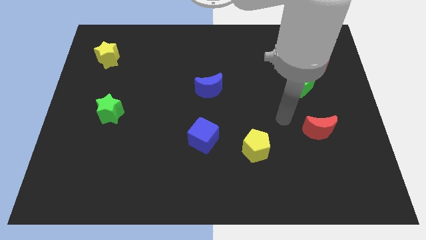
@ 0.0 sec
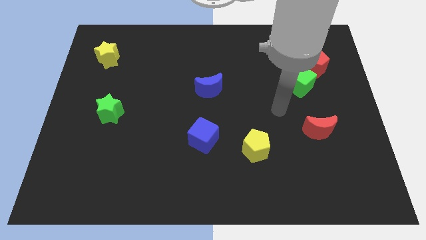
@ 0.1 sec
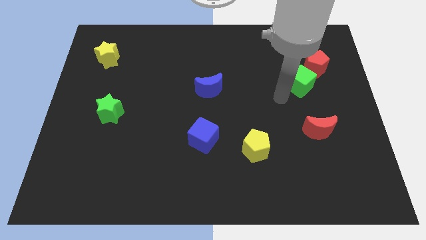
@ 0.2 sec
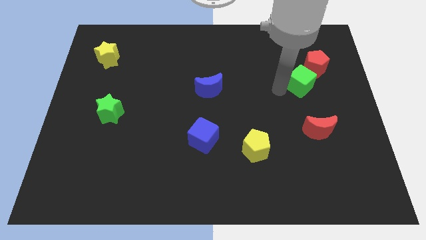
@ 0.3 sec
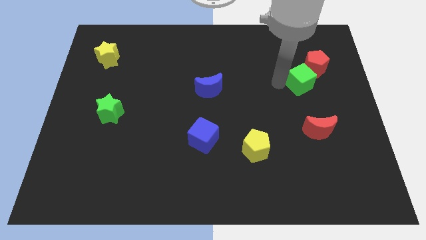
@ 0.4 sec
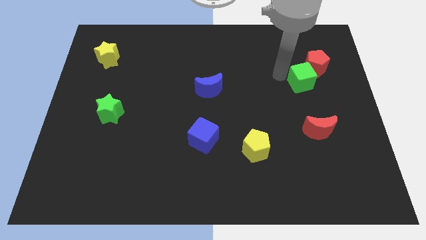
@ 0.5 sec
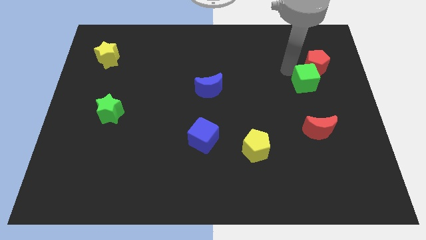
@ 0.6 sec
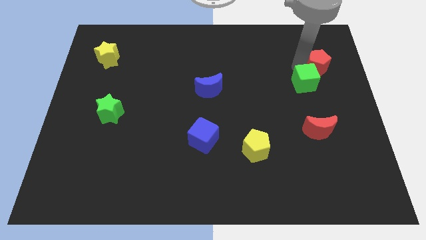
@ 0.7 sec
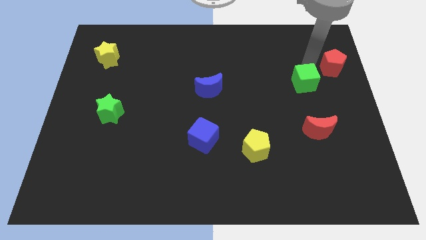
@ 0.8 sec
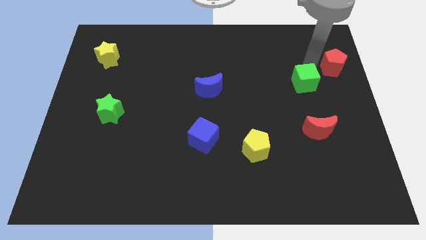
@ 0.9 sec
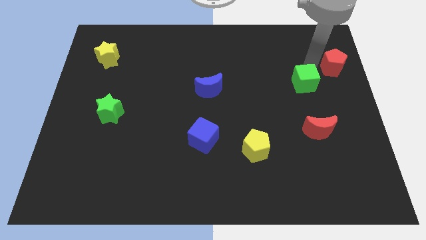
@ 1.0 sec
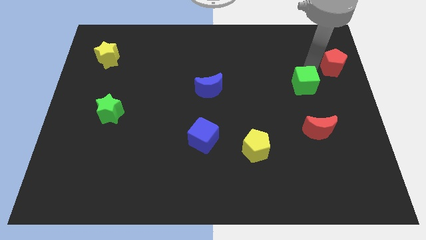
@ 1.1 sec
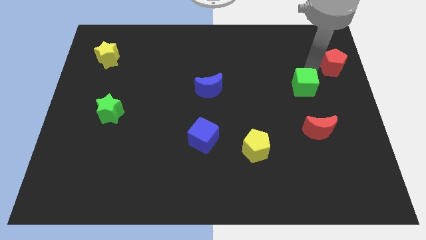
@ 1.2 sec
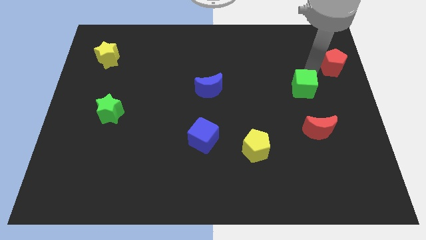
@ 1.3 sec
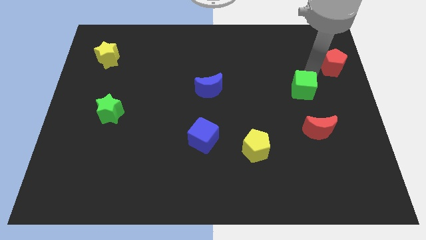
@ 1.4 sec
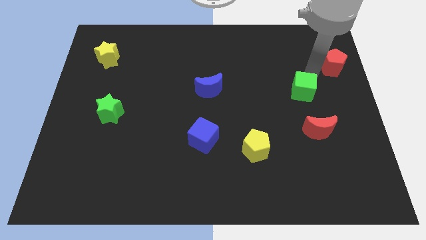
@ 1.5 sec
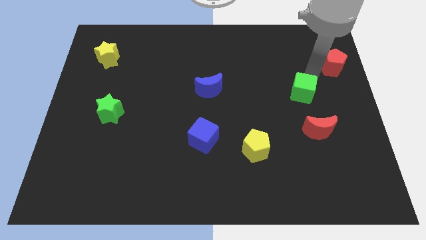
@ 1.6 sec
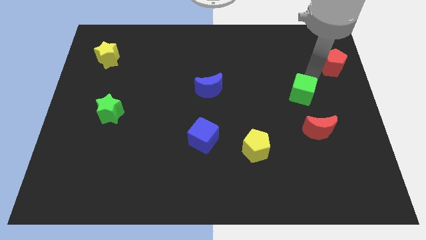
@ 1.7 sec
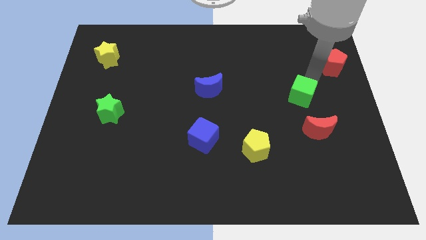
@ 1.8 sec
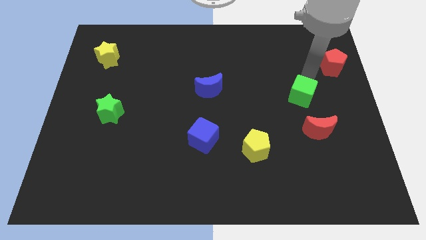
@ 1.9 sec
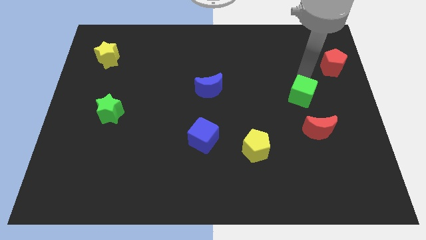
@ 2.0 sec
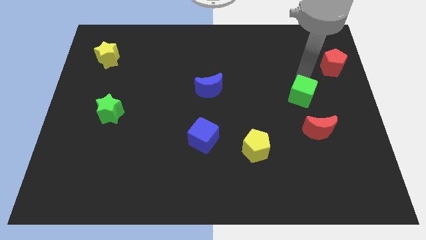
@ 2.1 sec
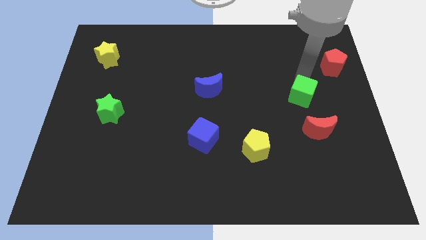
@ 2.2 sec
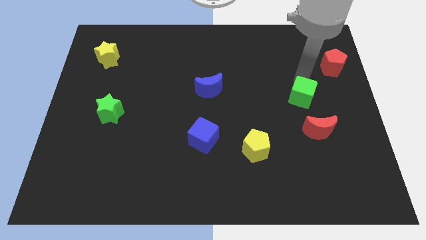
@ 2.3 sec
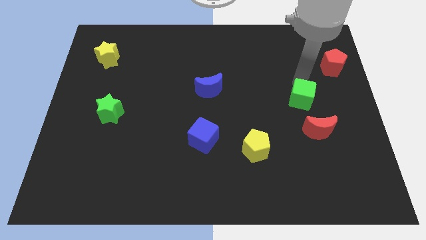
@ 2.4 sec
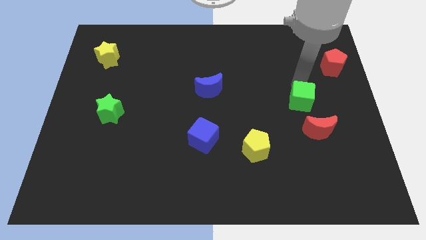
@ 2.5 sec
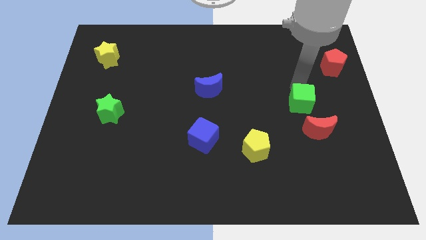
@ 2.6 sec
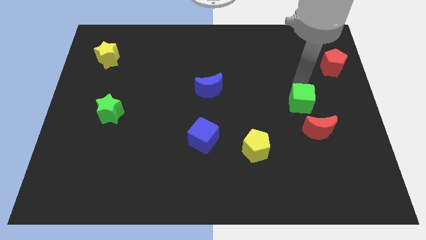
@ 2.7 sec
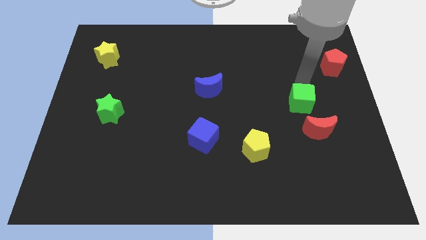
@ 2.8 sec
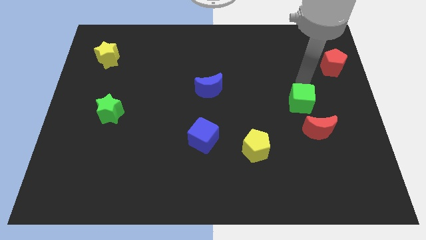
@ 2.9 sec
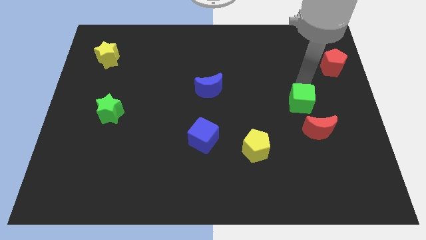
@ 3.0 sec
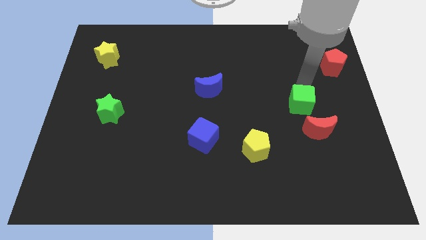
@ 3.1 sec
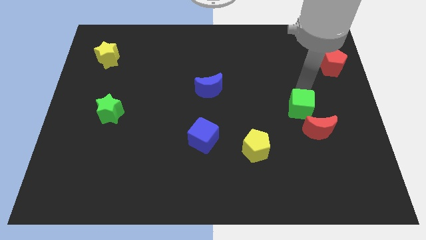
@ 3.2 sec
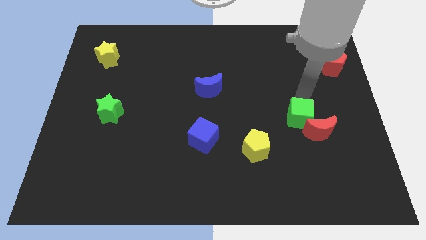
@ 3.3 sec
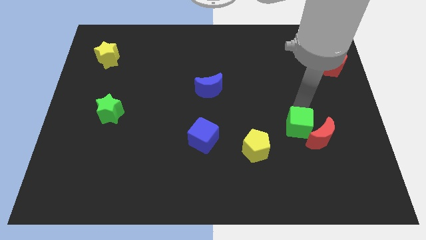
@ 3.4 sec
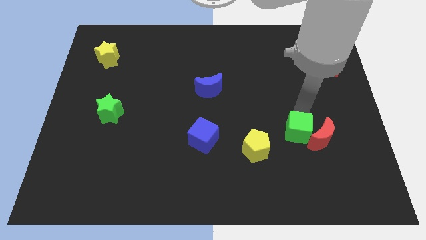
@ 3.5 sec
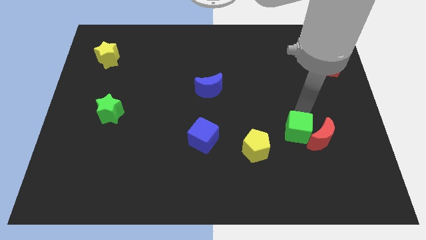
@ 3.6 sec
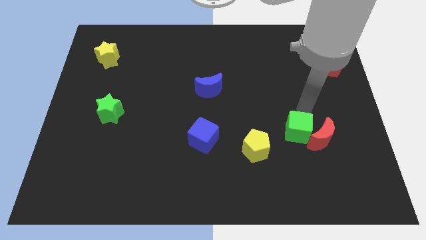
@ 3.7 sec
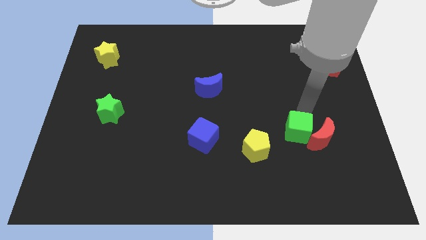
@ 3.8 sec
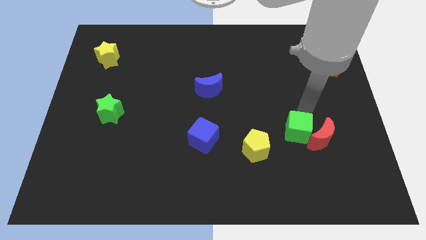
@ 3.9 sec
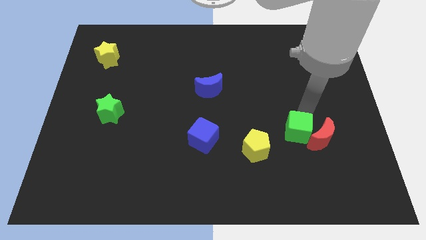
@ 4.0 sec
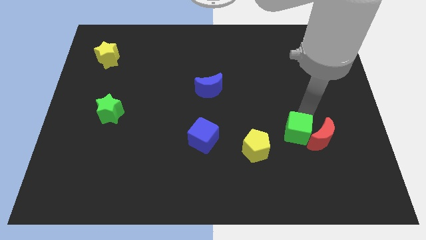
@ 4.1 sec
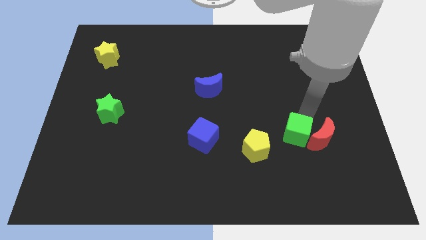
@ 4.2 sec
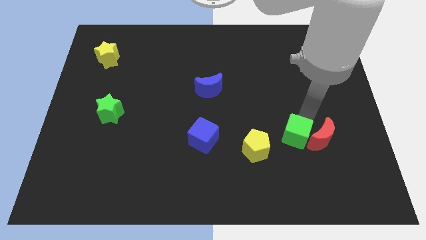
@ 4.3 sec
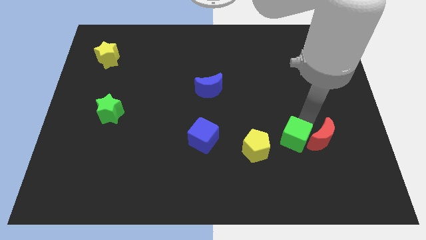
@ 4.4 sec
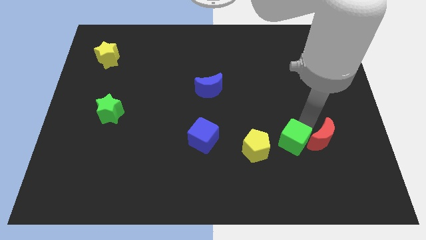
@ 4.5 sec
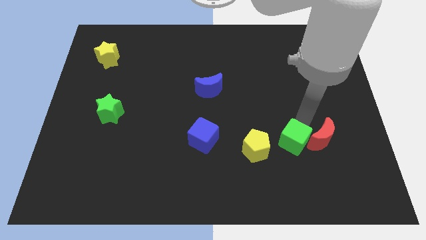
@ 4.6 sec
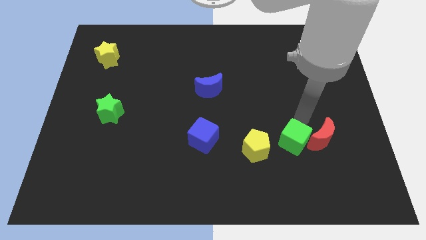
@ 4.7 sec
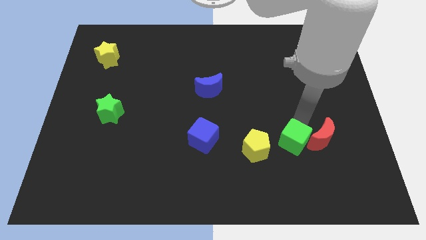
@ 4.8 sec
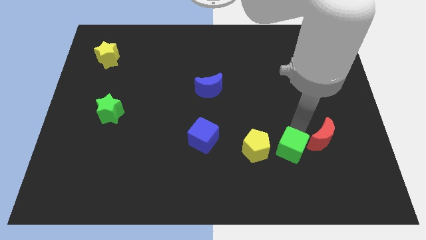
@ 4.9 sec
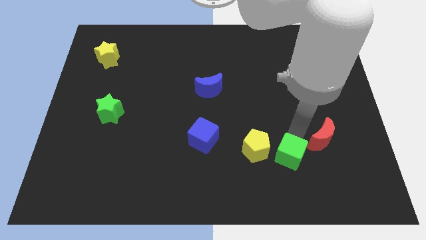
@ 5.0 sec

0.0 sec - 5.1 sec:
put the green cube to the bottom right side of the yellow pentagon

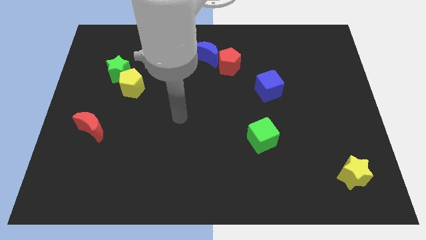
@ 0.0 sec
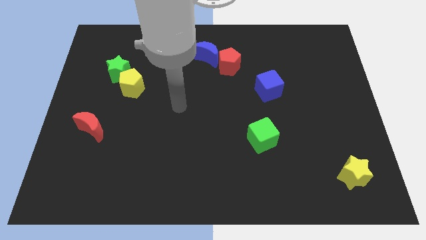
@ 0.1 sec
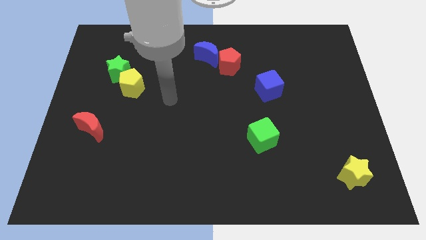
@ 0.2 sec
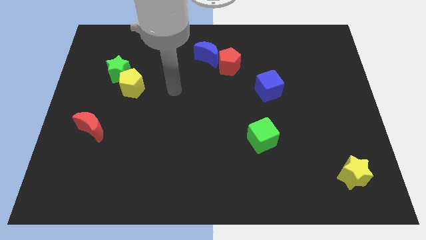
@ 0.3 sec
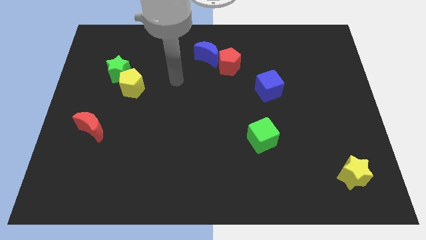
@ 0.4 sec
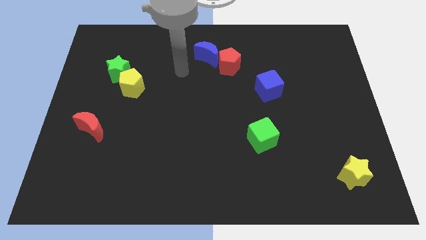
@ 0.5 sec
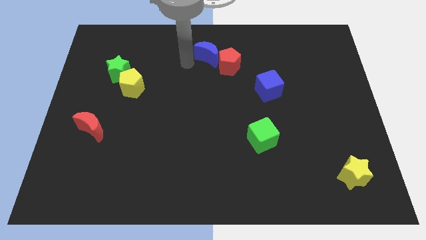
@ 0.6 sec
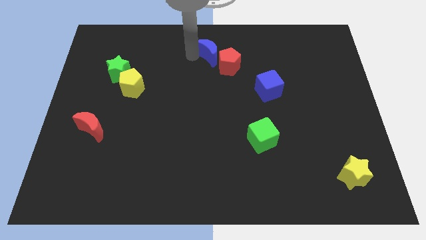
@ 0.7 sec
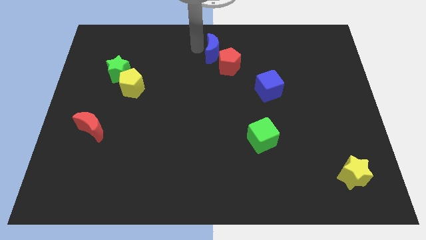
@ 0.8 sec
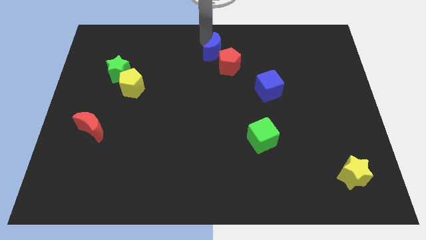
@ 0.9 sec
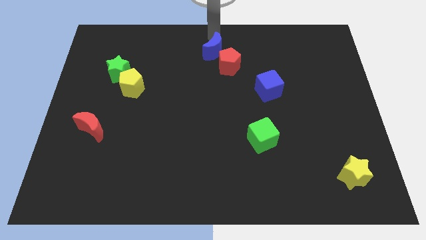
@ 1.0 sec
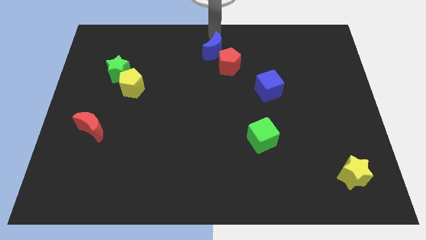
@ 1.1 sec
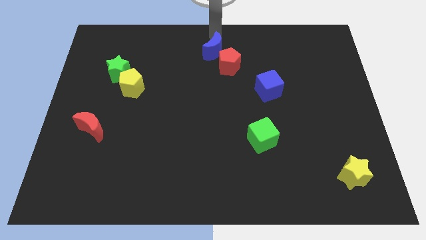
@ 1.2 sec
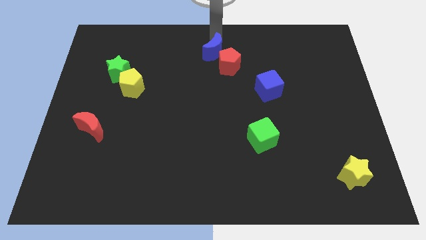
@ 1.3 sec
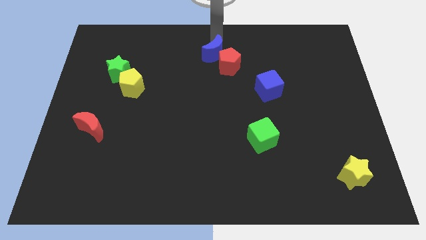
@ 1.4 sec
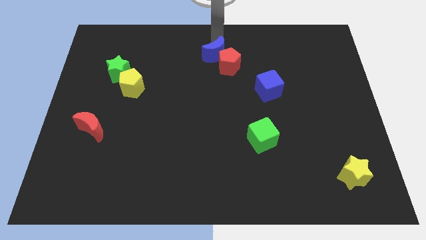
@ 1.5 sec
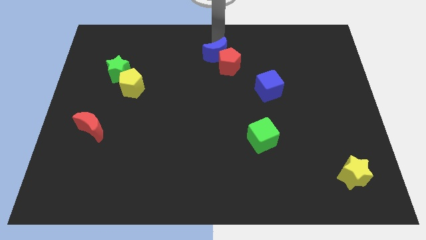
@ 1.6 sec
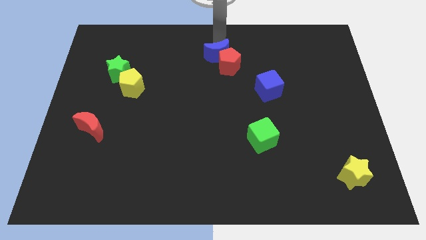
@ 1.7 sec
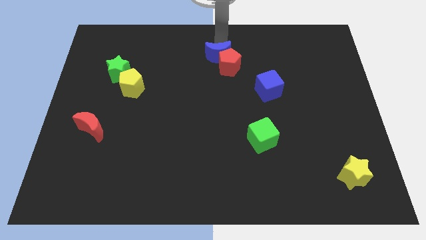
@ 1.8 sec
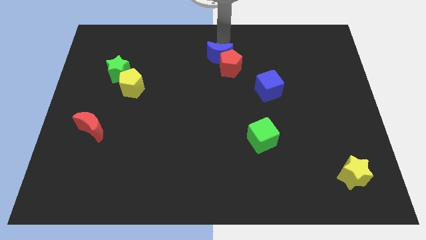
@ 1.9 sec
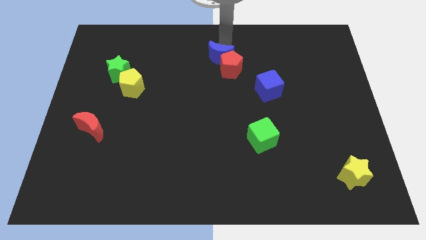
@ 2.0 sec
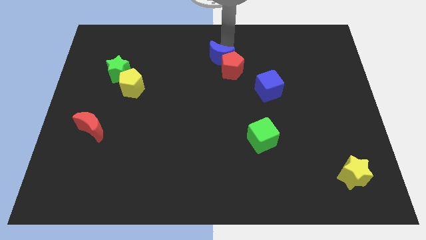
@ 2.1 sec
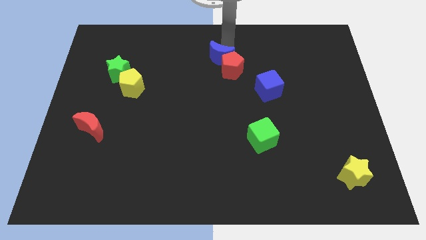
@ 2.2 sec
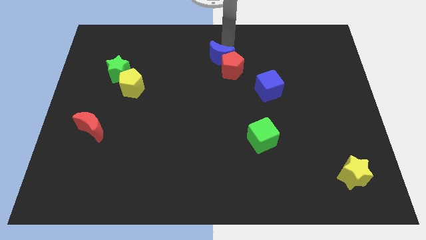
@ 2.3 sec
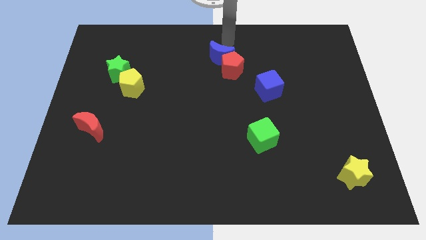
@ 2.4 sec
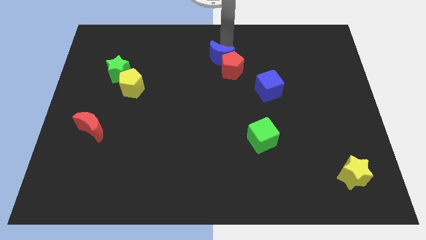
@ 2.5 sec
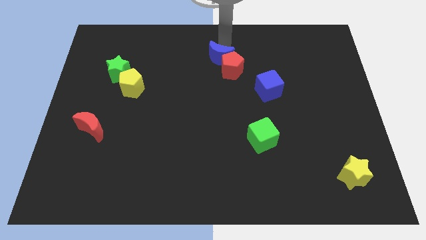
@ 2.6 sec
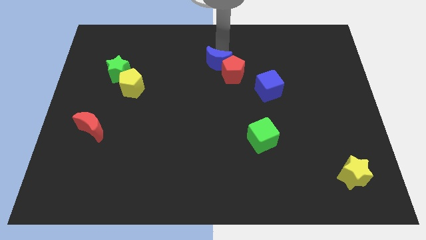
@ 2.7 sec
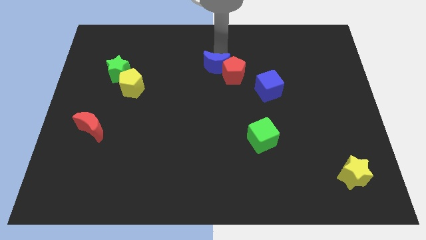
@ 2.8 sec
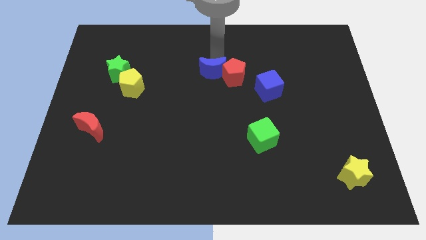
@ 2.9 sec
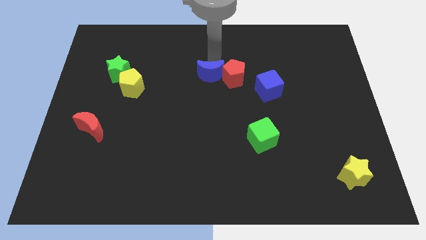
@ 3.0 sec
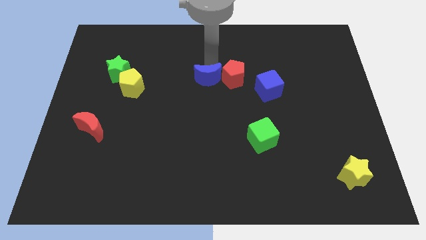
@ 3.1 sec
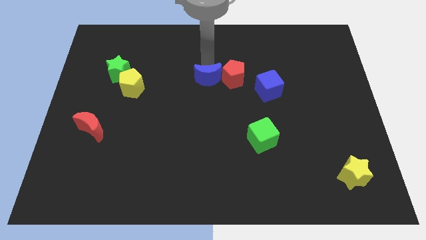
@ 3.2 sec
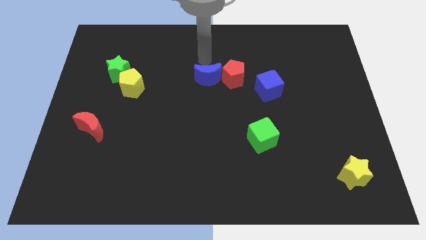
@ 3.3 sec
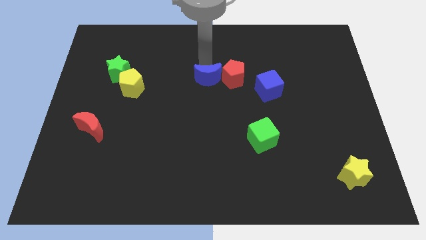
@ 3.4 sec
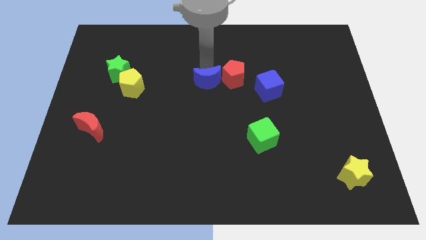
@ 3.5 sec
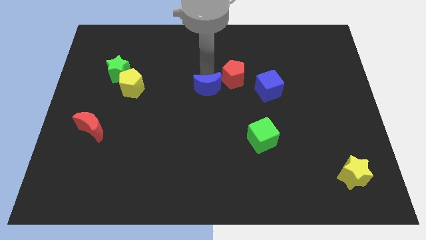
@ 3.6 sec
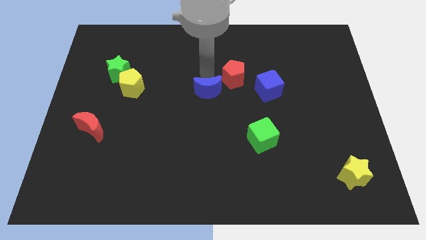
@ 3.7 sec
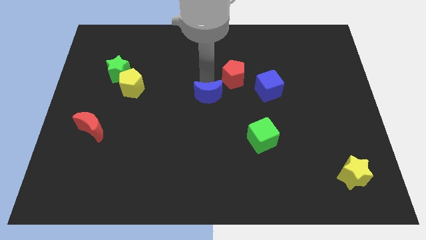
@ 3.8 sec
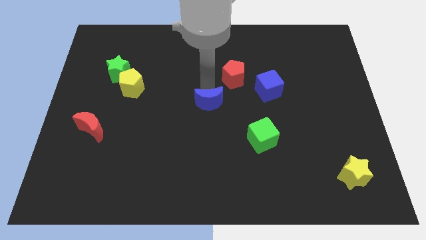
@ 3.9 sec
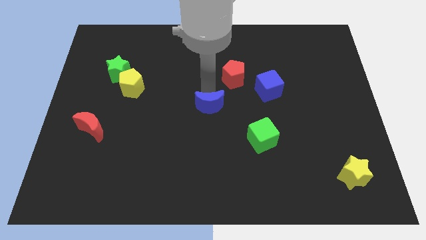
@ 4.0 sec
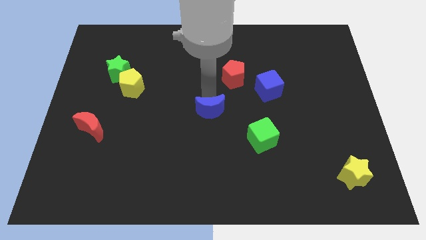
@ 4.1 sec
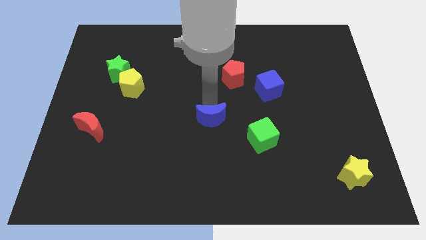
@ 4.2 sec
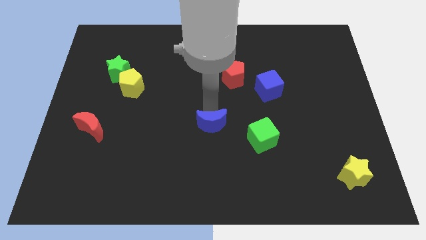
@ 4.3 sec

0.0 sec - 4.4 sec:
move the blue moon to the left of the green cube
